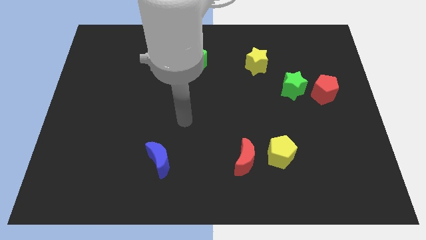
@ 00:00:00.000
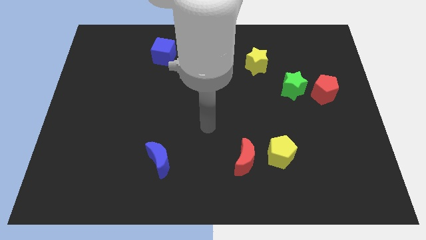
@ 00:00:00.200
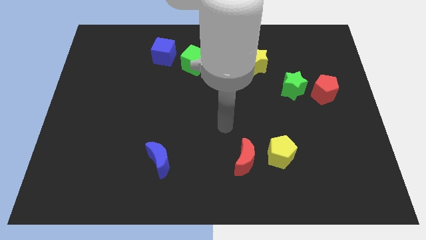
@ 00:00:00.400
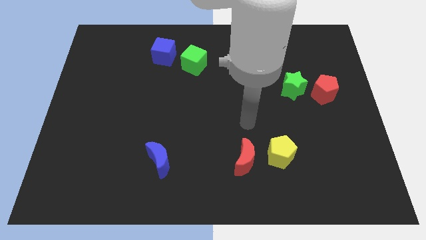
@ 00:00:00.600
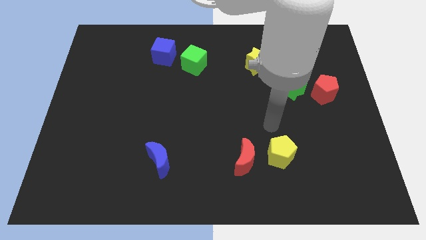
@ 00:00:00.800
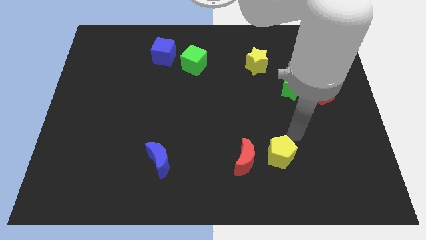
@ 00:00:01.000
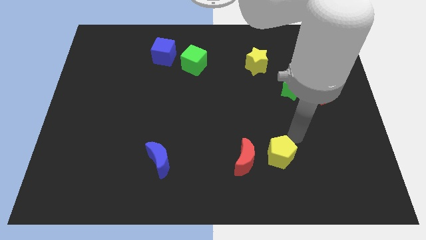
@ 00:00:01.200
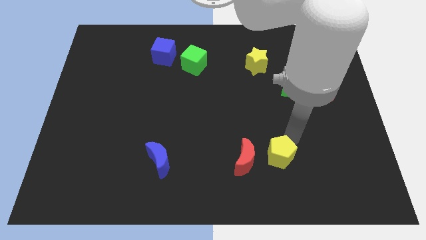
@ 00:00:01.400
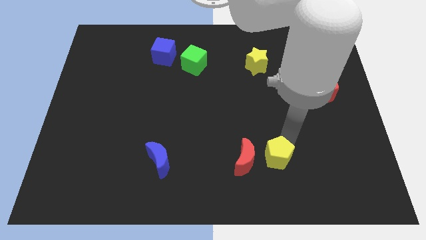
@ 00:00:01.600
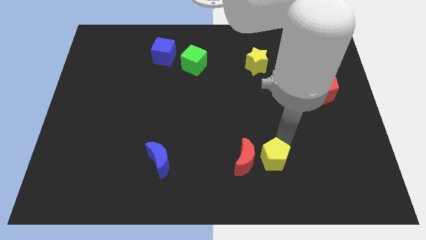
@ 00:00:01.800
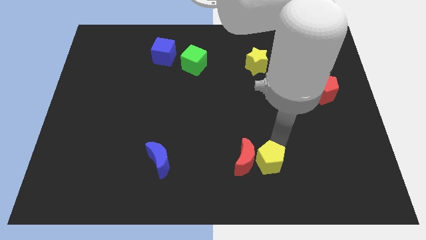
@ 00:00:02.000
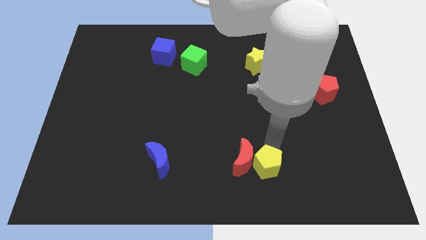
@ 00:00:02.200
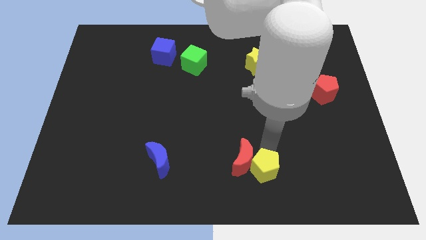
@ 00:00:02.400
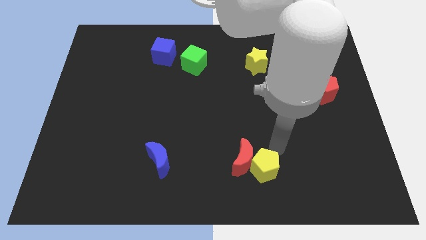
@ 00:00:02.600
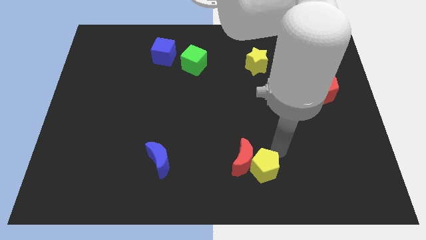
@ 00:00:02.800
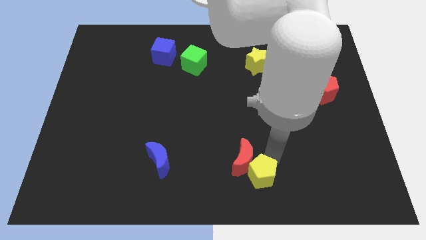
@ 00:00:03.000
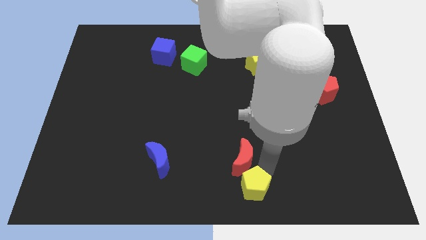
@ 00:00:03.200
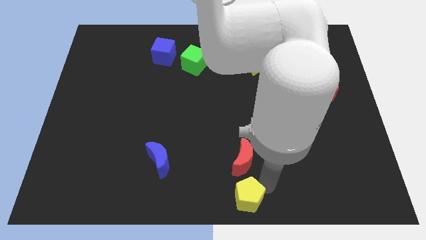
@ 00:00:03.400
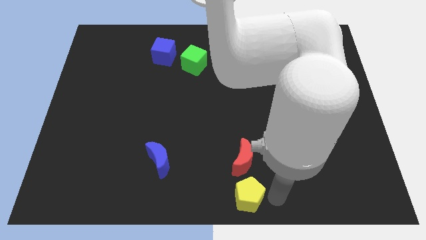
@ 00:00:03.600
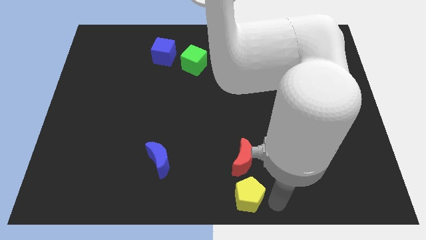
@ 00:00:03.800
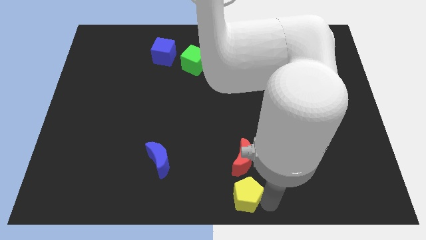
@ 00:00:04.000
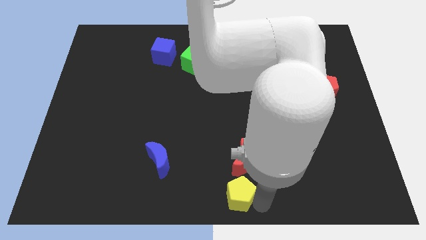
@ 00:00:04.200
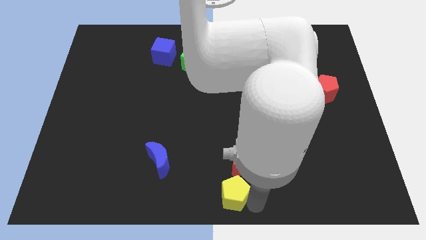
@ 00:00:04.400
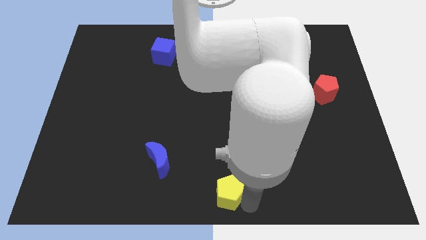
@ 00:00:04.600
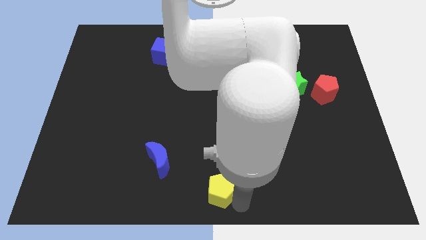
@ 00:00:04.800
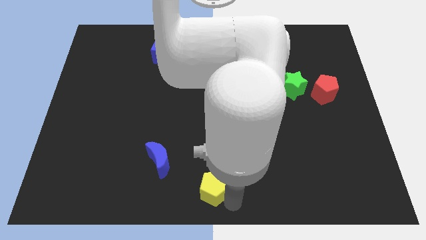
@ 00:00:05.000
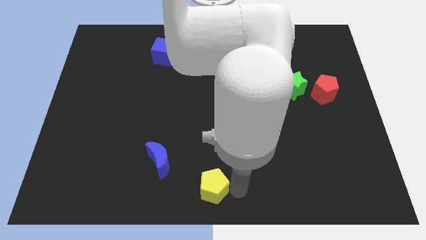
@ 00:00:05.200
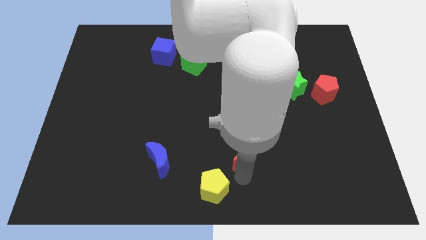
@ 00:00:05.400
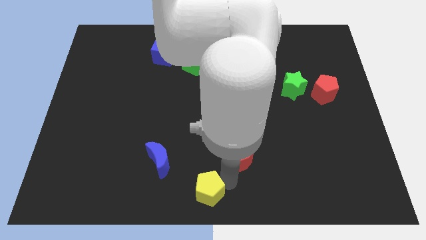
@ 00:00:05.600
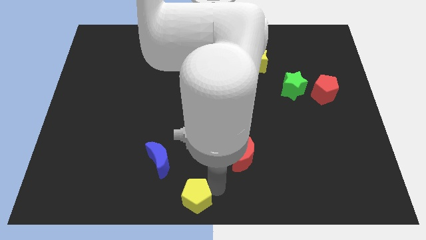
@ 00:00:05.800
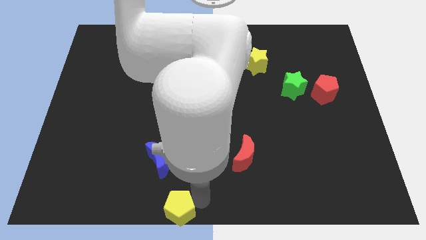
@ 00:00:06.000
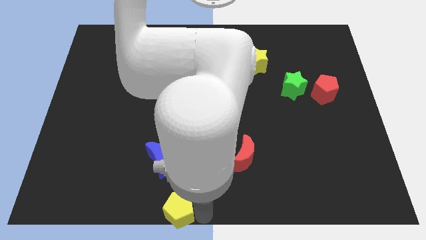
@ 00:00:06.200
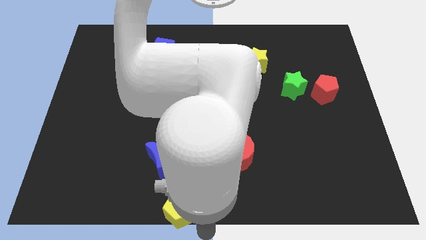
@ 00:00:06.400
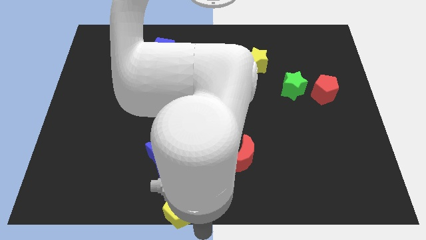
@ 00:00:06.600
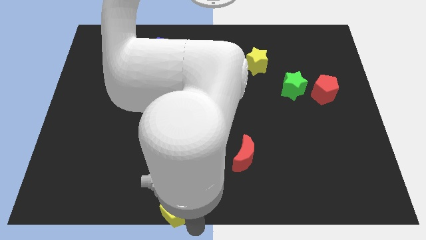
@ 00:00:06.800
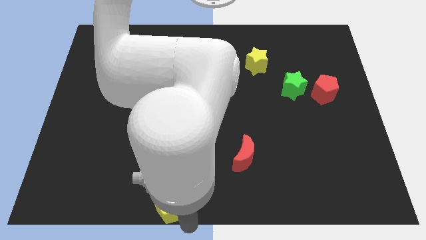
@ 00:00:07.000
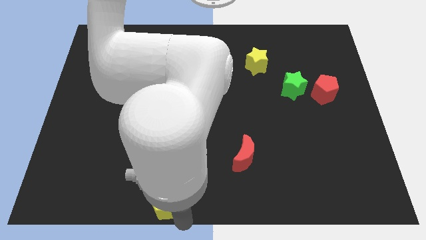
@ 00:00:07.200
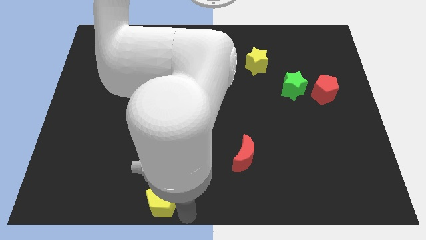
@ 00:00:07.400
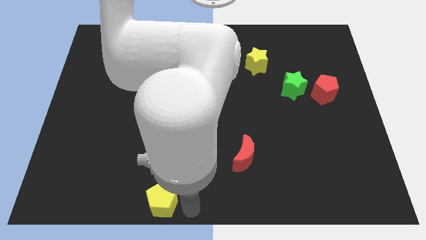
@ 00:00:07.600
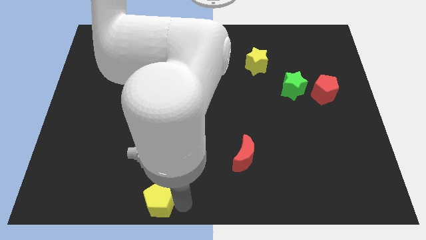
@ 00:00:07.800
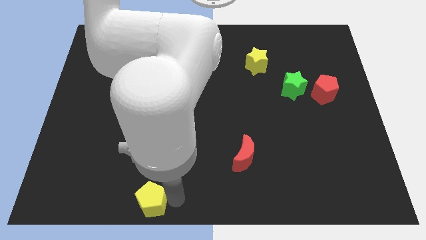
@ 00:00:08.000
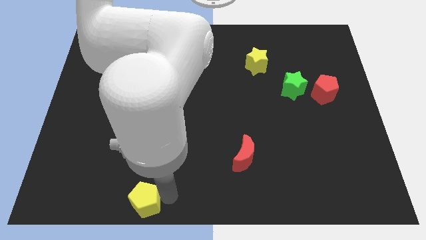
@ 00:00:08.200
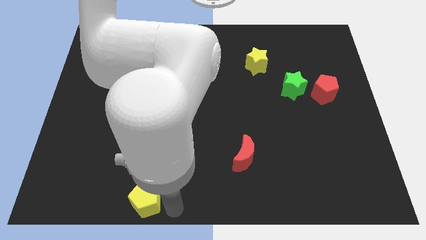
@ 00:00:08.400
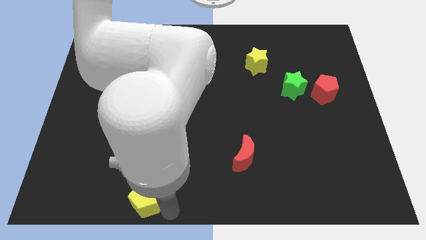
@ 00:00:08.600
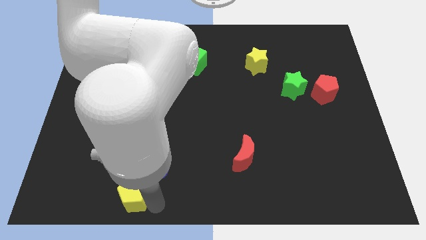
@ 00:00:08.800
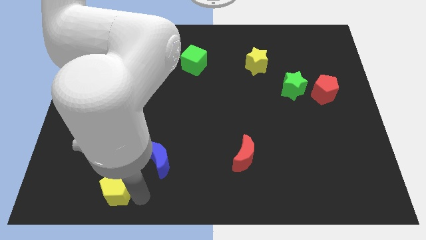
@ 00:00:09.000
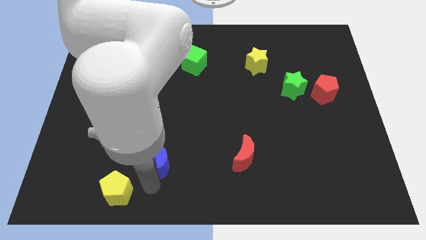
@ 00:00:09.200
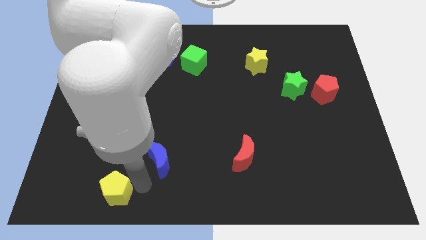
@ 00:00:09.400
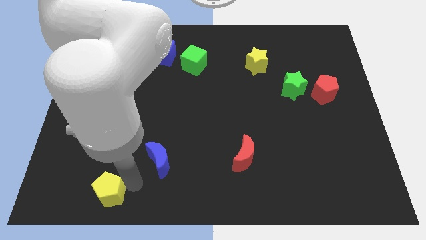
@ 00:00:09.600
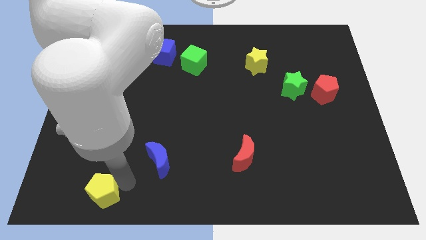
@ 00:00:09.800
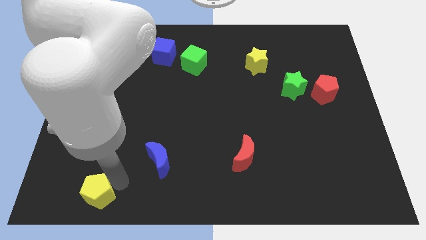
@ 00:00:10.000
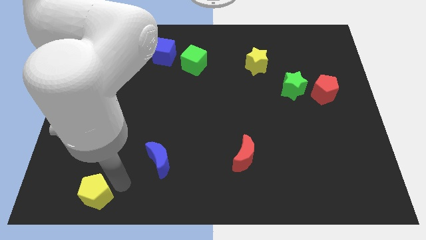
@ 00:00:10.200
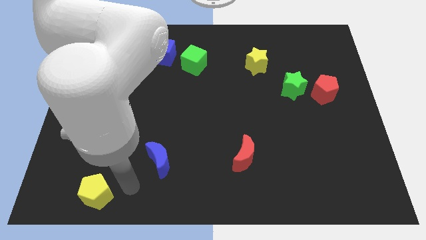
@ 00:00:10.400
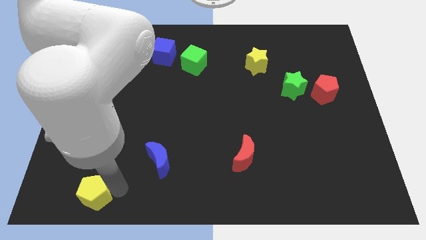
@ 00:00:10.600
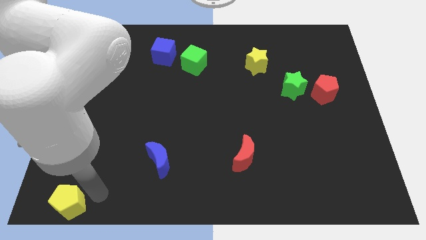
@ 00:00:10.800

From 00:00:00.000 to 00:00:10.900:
slide the yellow pentagon to the bottom left

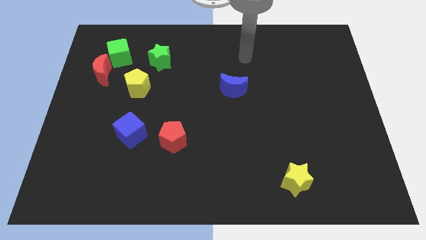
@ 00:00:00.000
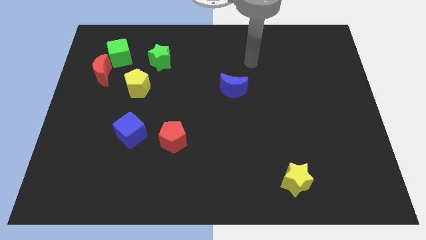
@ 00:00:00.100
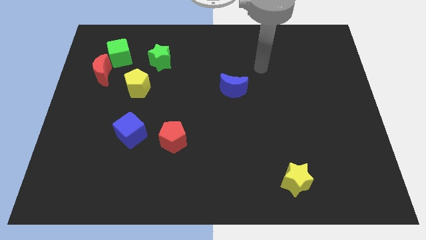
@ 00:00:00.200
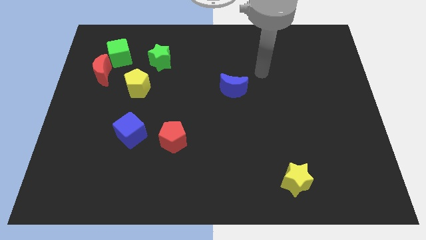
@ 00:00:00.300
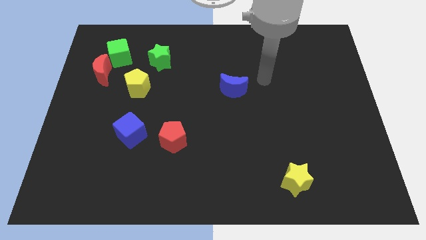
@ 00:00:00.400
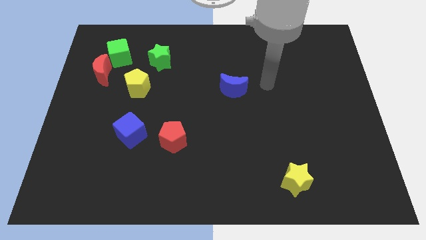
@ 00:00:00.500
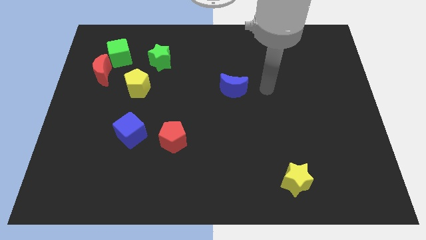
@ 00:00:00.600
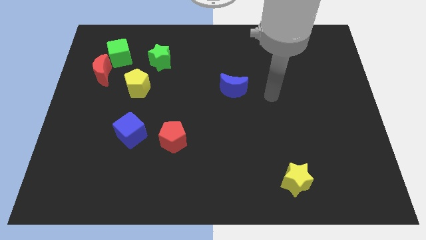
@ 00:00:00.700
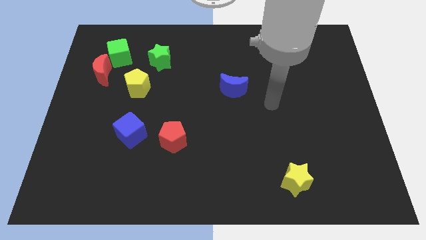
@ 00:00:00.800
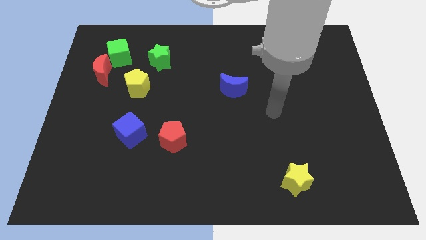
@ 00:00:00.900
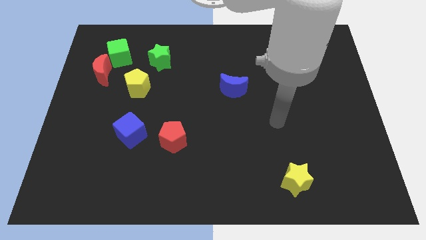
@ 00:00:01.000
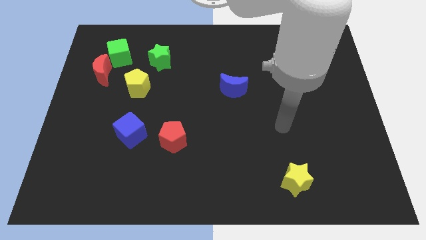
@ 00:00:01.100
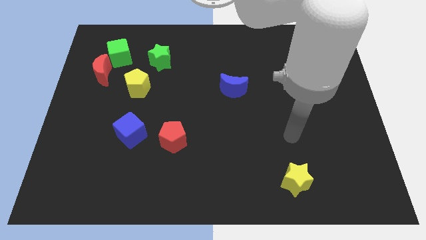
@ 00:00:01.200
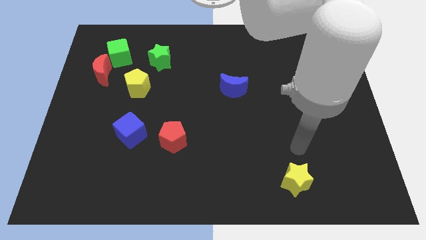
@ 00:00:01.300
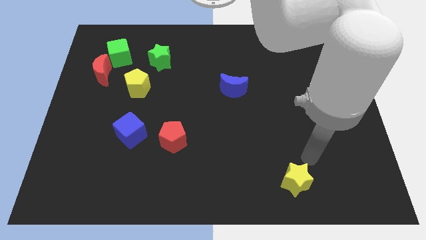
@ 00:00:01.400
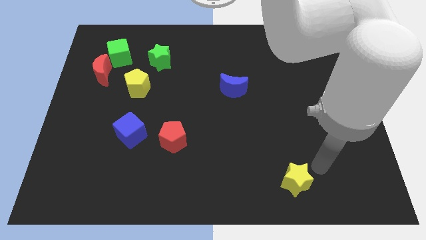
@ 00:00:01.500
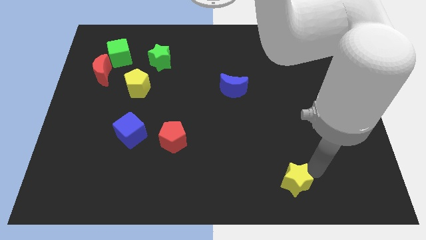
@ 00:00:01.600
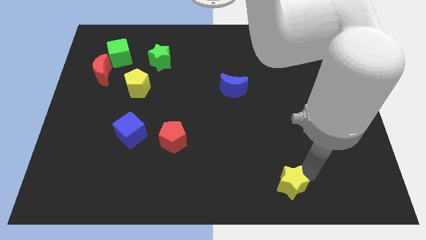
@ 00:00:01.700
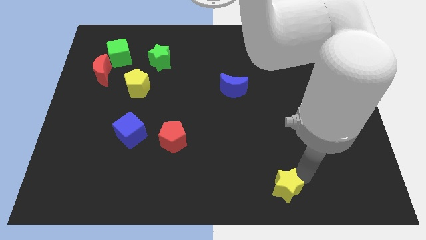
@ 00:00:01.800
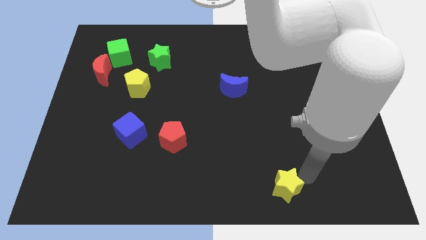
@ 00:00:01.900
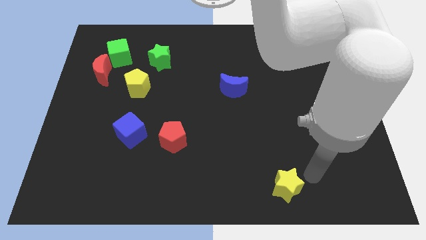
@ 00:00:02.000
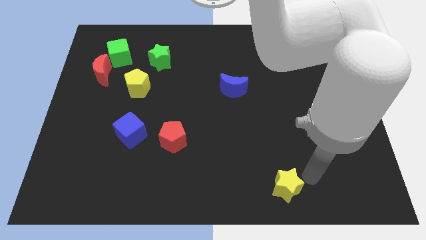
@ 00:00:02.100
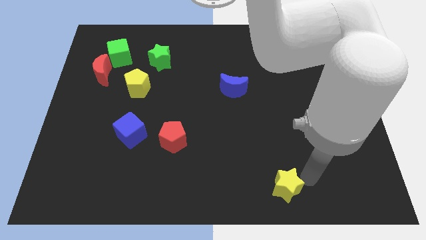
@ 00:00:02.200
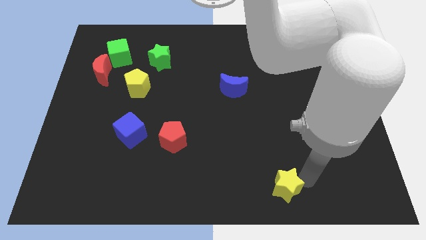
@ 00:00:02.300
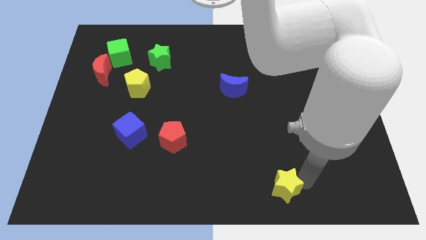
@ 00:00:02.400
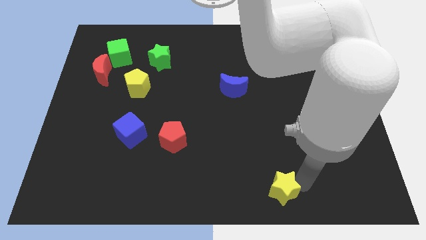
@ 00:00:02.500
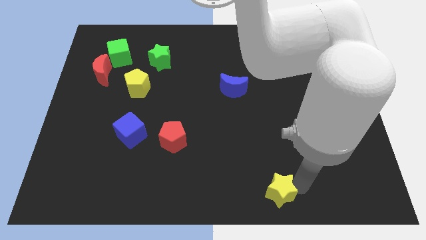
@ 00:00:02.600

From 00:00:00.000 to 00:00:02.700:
push the yellow star to the bottom
